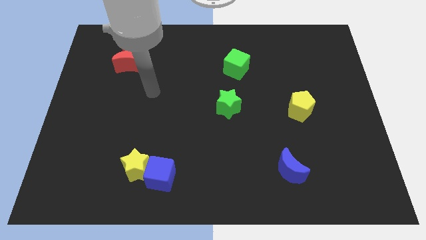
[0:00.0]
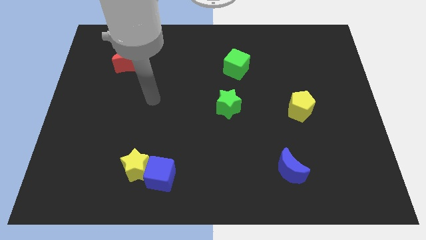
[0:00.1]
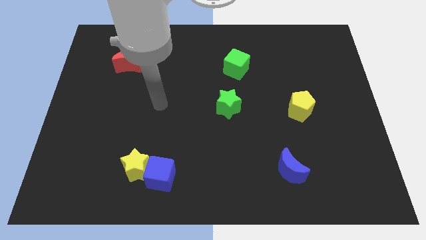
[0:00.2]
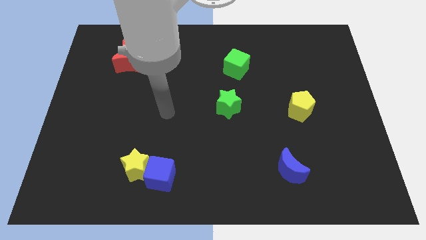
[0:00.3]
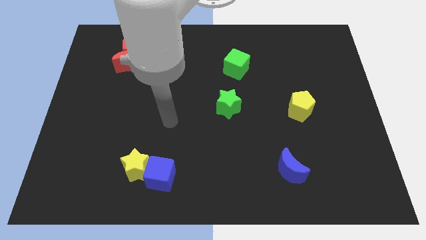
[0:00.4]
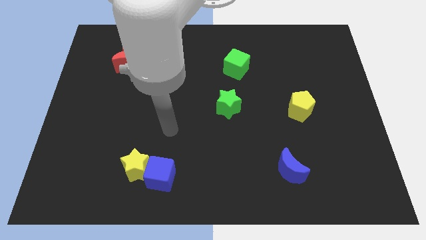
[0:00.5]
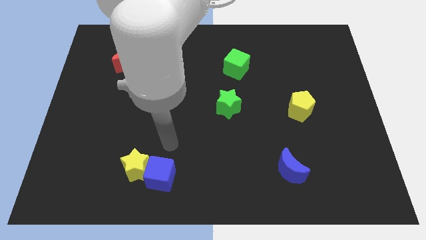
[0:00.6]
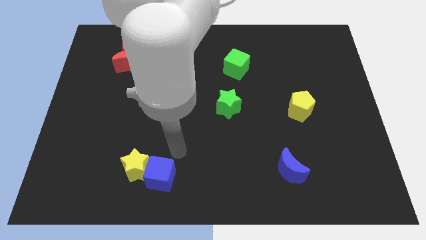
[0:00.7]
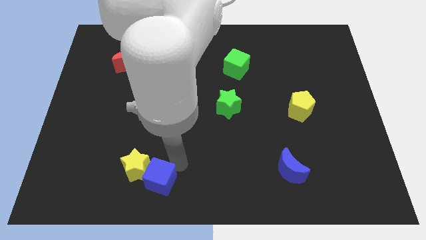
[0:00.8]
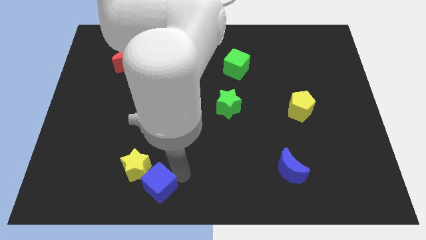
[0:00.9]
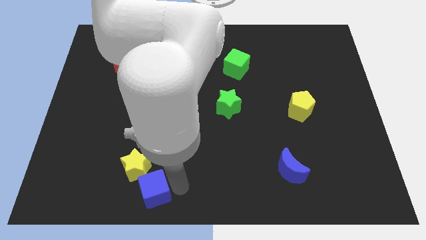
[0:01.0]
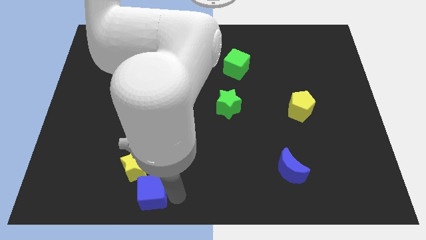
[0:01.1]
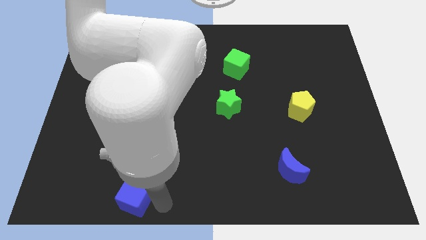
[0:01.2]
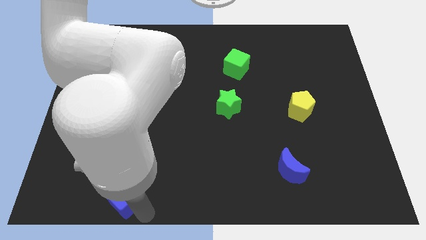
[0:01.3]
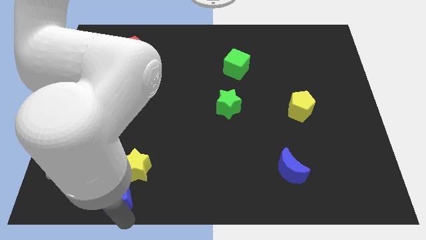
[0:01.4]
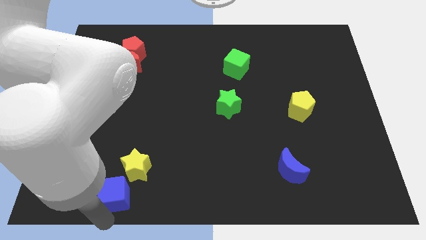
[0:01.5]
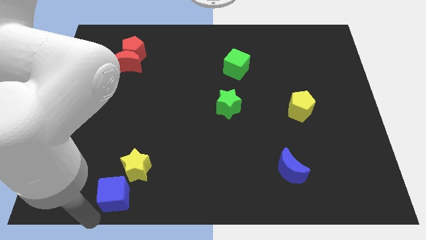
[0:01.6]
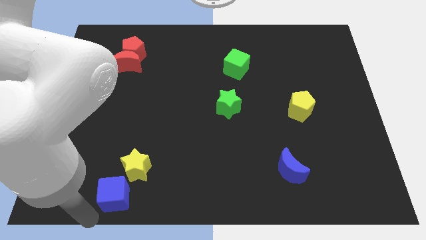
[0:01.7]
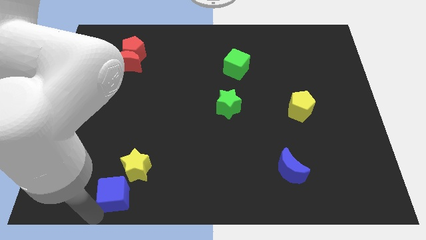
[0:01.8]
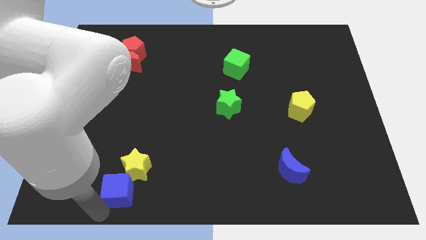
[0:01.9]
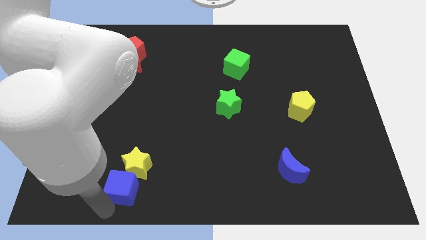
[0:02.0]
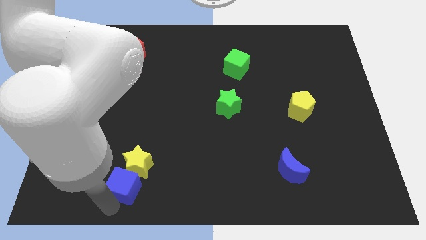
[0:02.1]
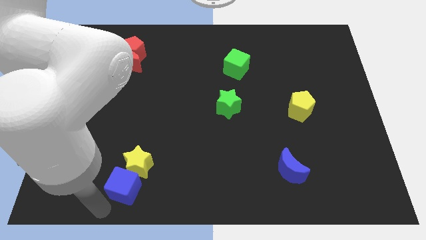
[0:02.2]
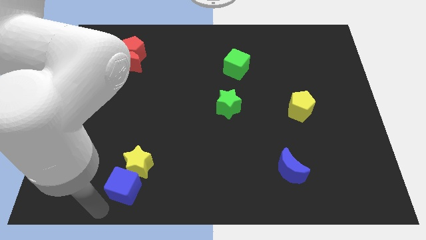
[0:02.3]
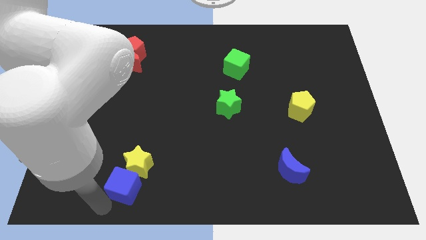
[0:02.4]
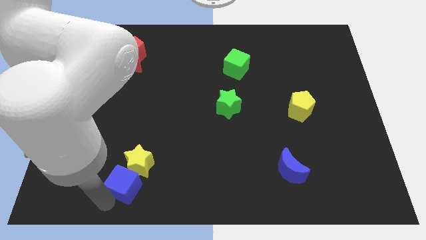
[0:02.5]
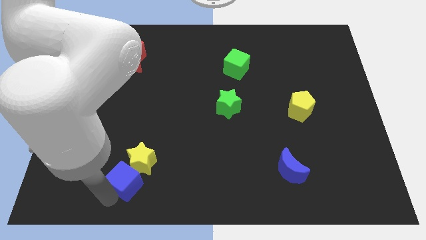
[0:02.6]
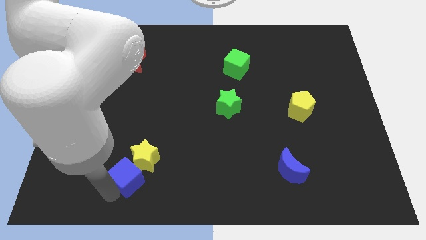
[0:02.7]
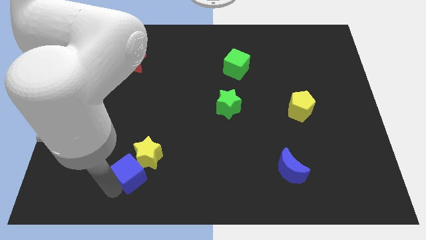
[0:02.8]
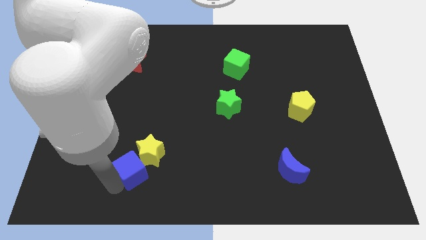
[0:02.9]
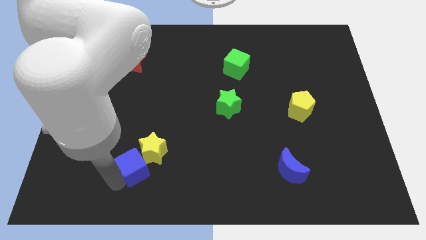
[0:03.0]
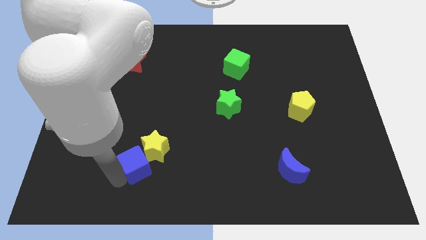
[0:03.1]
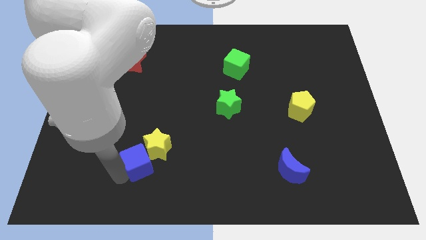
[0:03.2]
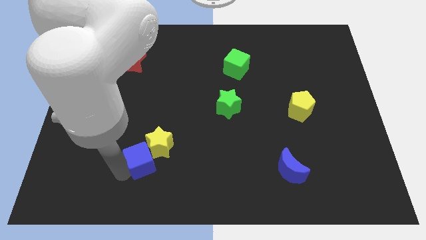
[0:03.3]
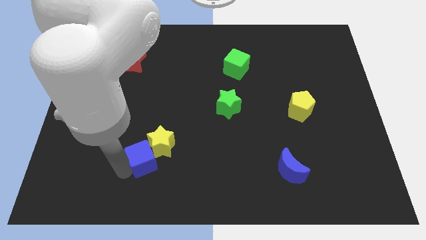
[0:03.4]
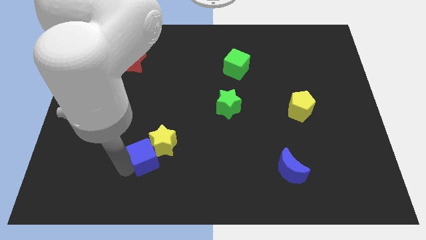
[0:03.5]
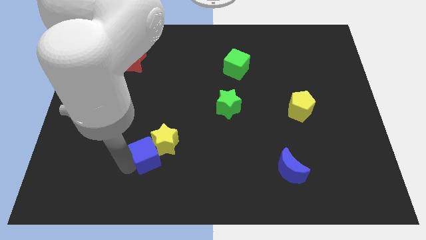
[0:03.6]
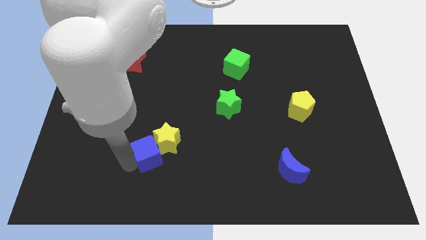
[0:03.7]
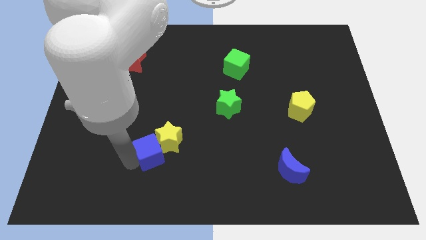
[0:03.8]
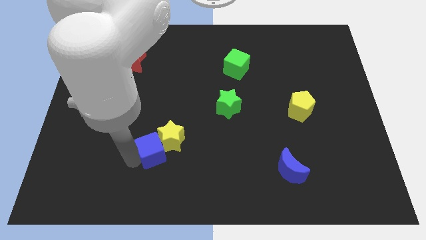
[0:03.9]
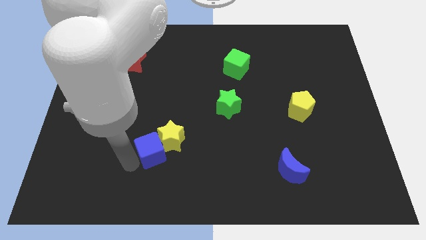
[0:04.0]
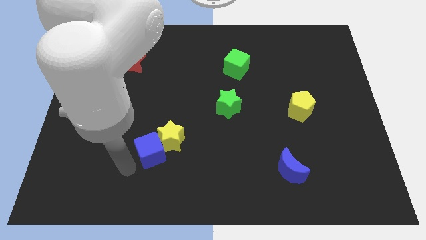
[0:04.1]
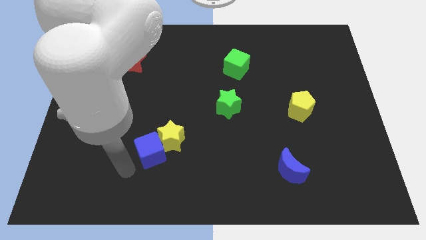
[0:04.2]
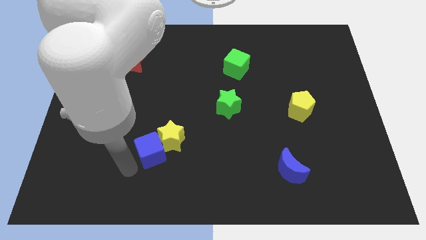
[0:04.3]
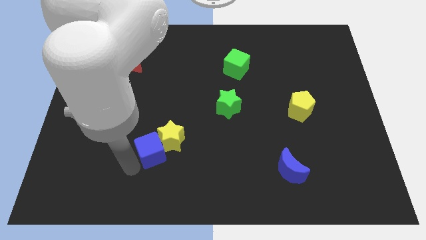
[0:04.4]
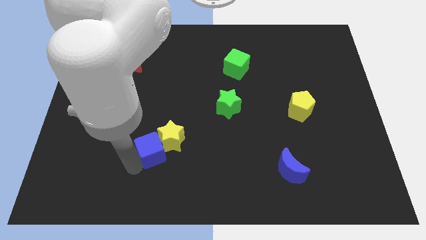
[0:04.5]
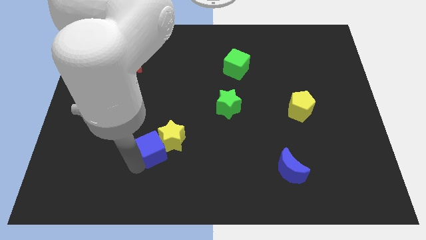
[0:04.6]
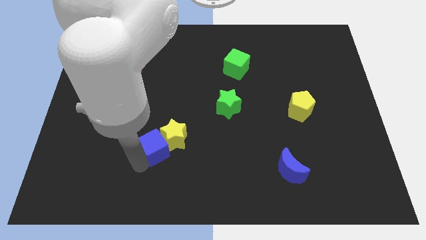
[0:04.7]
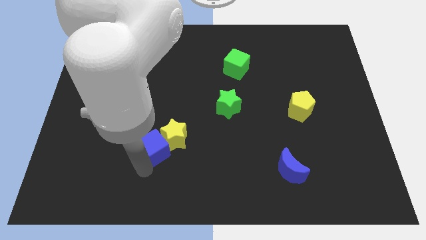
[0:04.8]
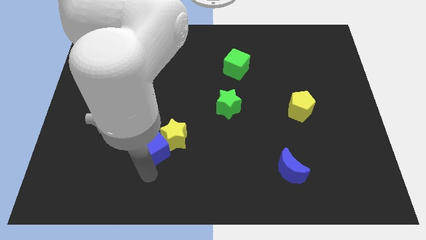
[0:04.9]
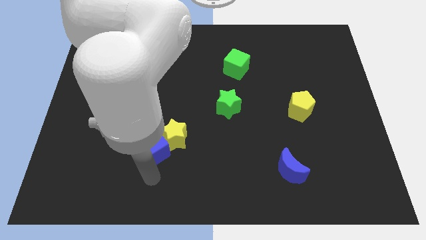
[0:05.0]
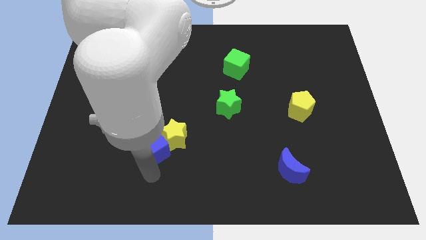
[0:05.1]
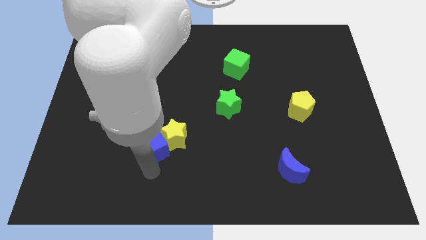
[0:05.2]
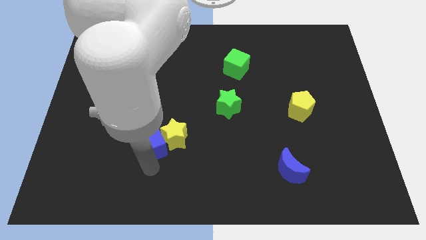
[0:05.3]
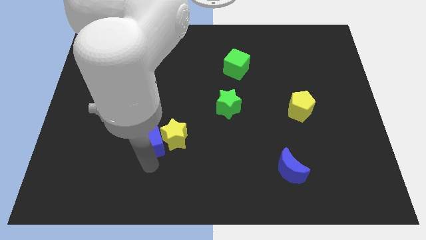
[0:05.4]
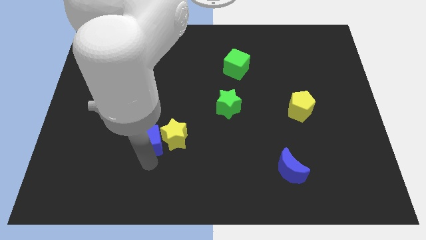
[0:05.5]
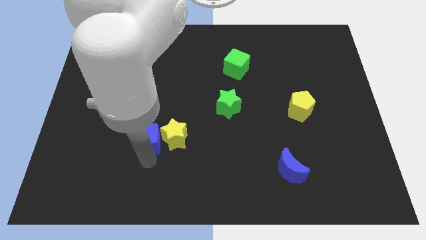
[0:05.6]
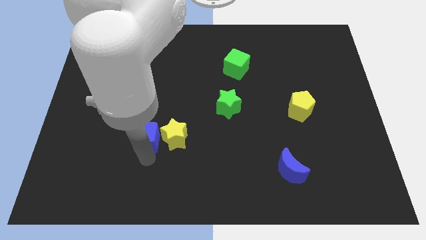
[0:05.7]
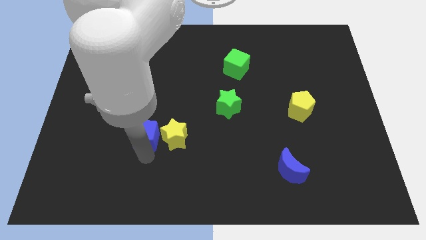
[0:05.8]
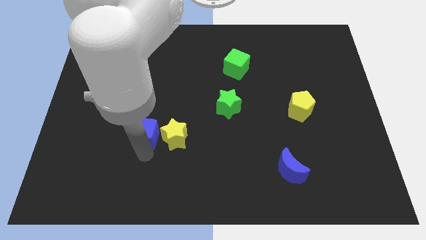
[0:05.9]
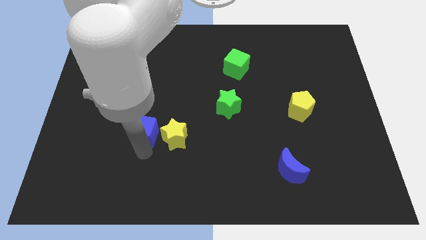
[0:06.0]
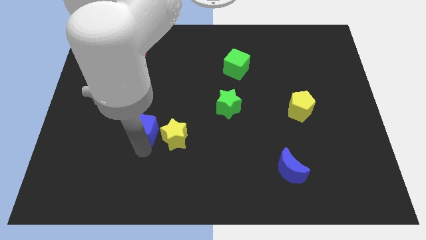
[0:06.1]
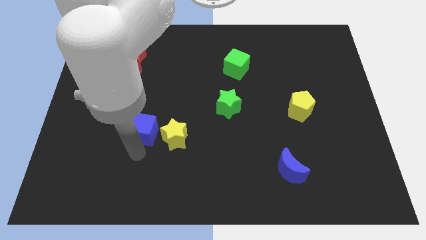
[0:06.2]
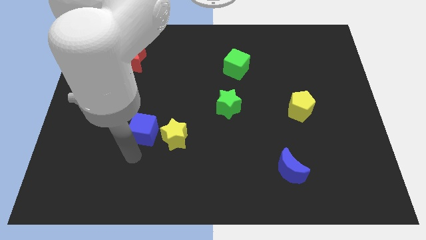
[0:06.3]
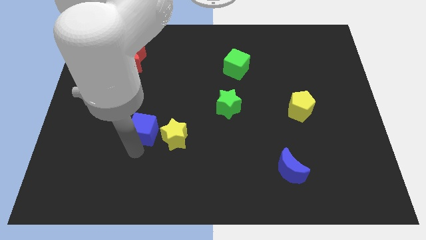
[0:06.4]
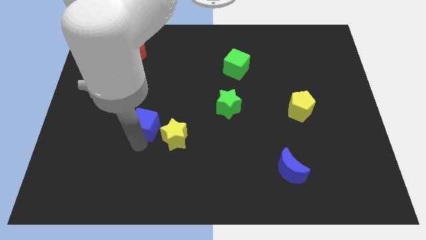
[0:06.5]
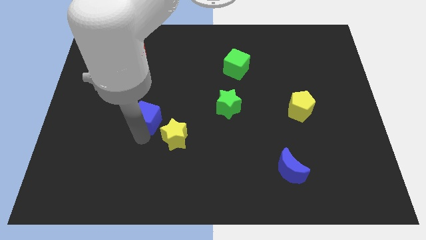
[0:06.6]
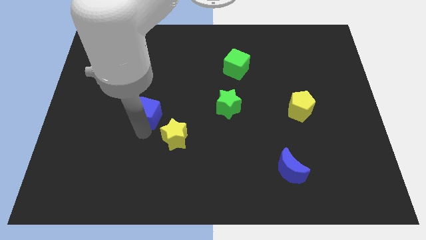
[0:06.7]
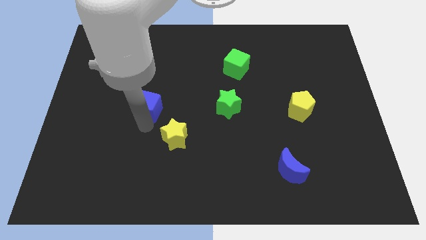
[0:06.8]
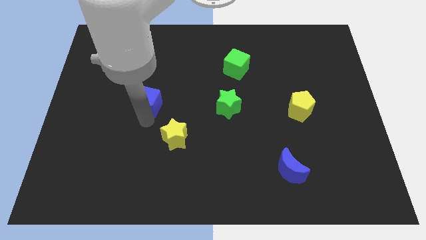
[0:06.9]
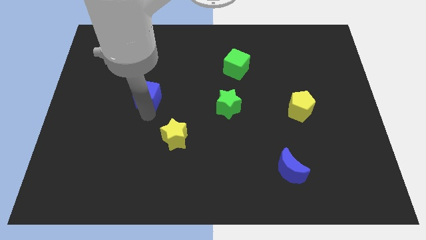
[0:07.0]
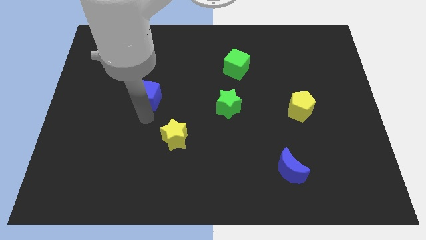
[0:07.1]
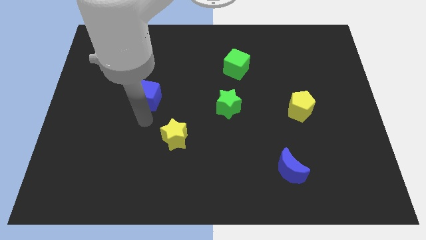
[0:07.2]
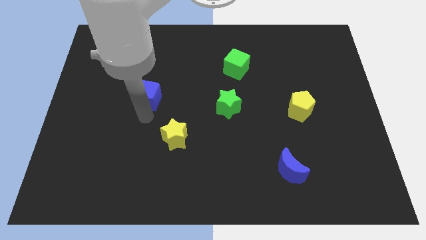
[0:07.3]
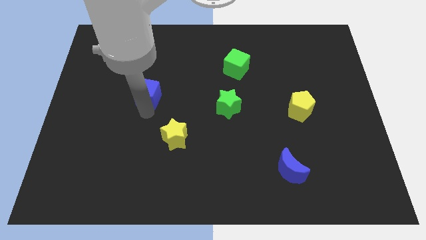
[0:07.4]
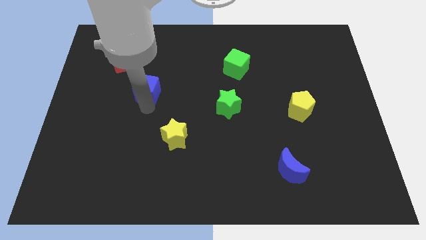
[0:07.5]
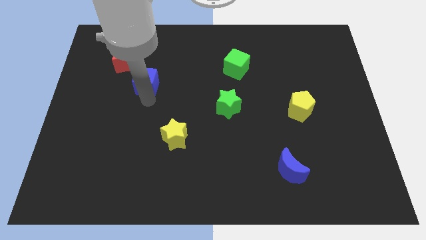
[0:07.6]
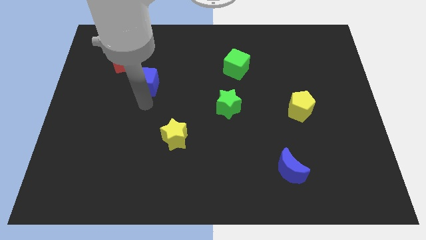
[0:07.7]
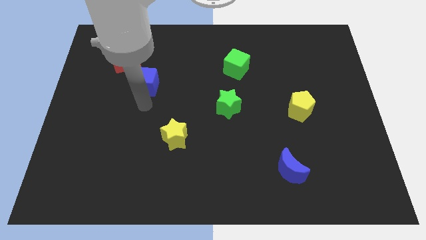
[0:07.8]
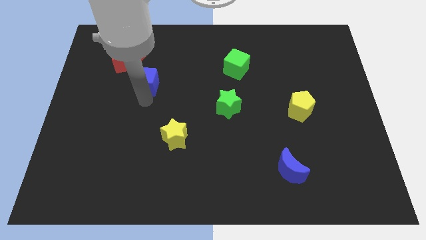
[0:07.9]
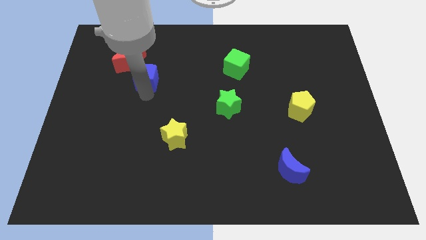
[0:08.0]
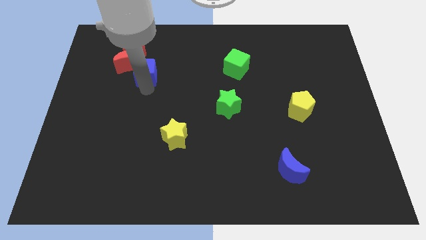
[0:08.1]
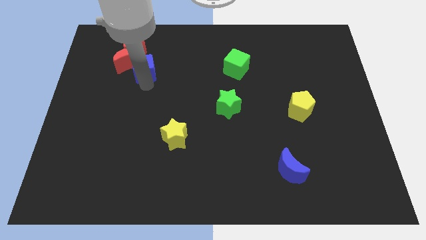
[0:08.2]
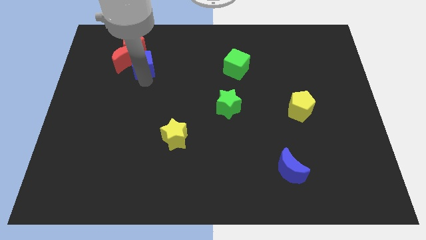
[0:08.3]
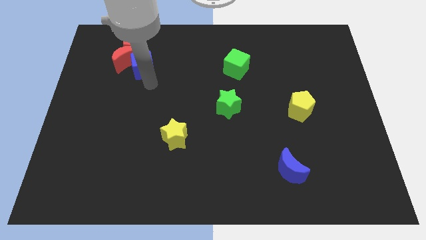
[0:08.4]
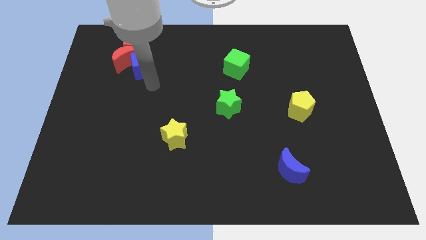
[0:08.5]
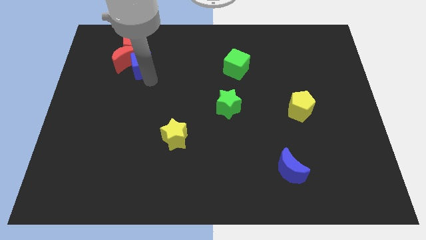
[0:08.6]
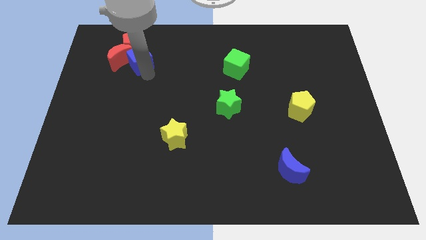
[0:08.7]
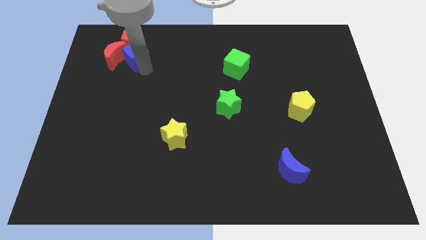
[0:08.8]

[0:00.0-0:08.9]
move the blue cube towards the red pentagon
